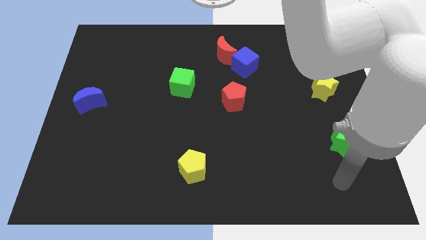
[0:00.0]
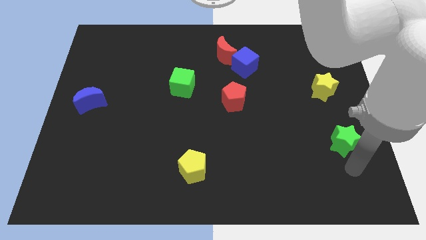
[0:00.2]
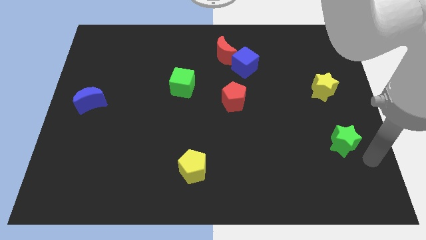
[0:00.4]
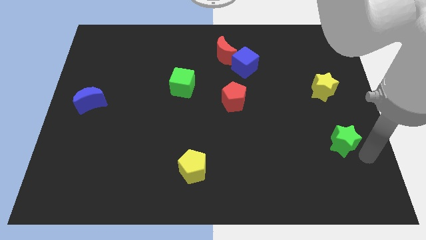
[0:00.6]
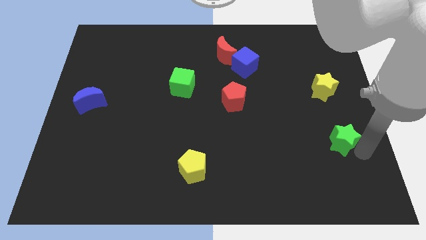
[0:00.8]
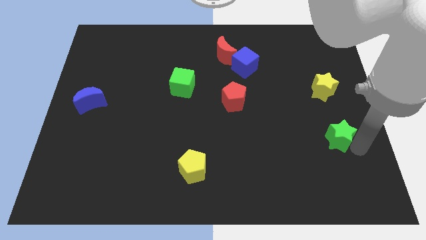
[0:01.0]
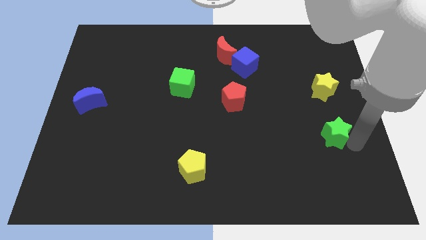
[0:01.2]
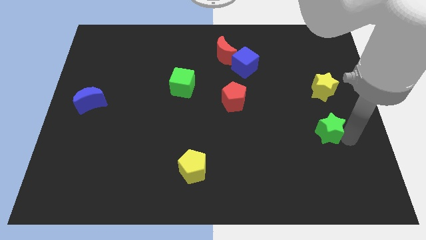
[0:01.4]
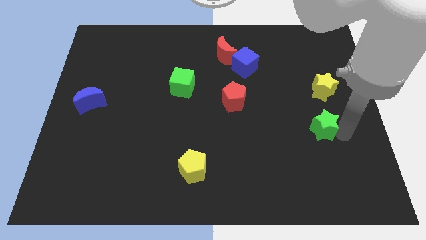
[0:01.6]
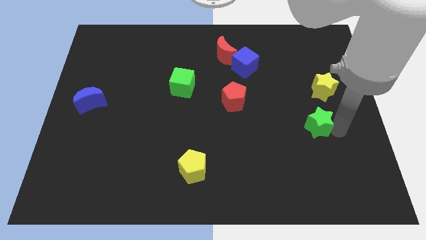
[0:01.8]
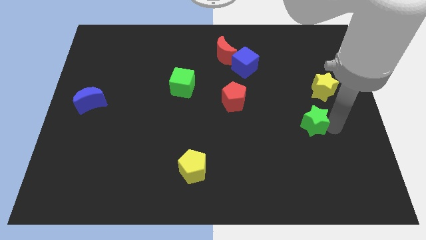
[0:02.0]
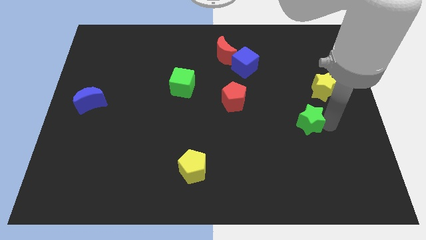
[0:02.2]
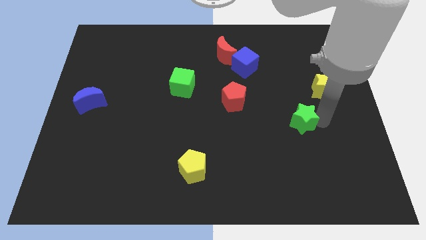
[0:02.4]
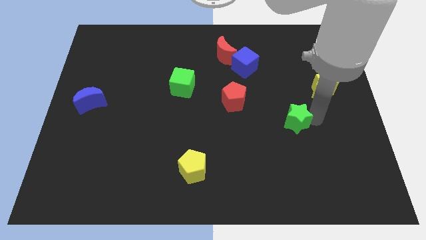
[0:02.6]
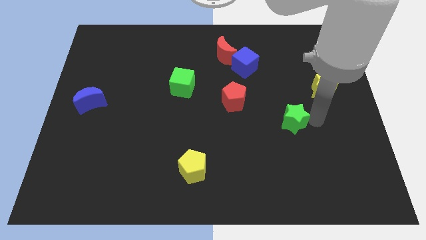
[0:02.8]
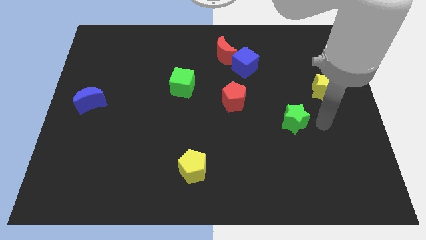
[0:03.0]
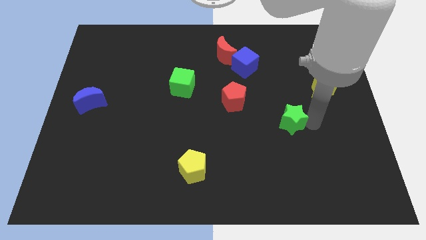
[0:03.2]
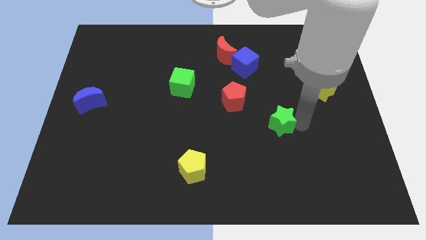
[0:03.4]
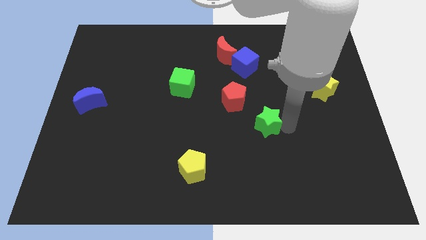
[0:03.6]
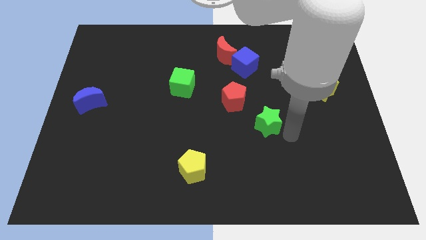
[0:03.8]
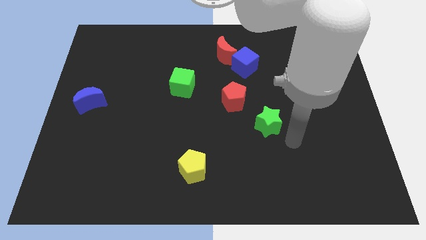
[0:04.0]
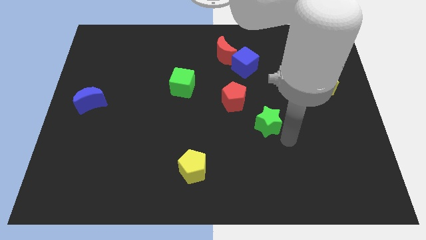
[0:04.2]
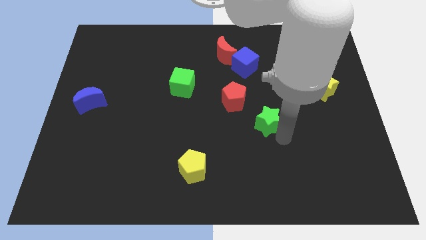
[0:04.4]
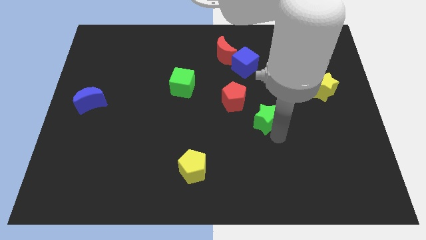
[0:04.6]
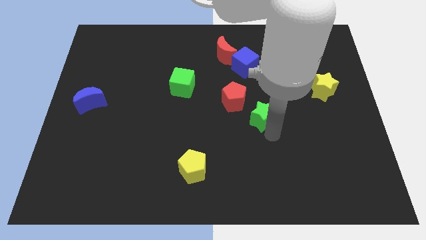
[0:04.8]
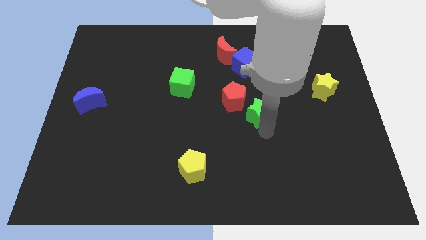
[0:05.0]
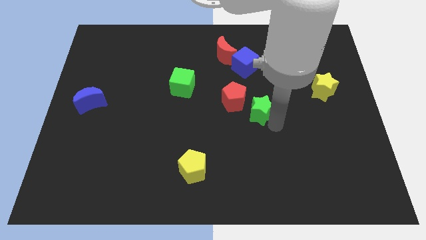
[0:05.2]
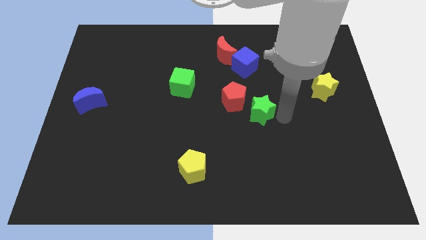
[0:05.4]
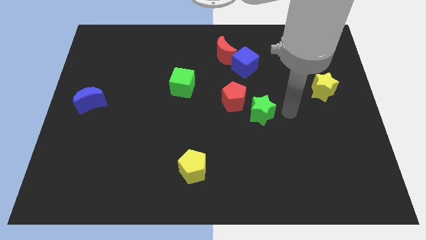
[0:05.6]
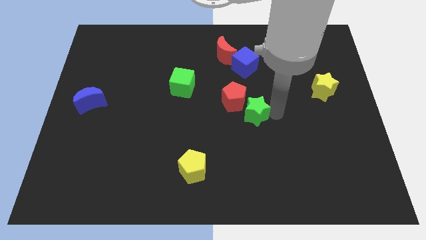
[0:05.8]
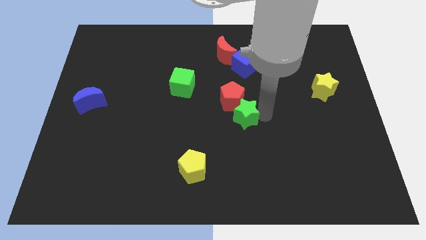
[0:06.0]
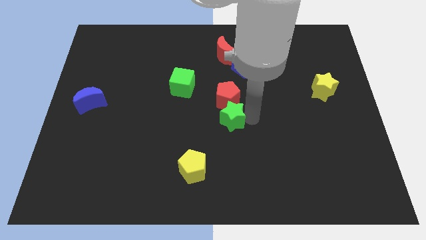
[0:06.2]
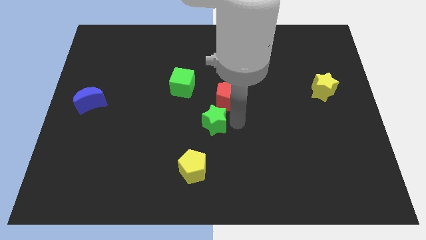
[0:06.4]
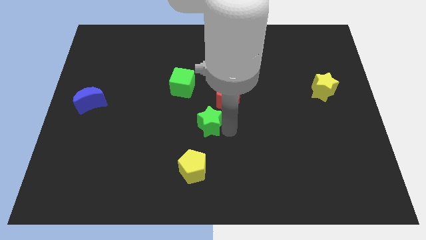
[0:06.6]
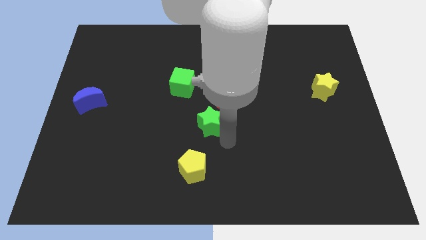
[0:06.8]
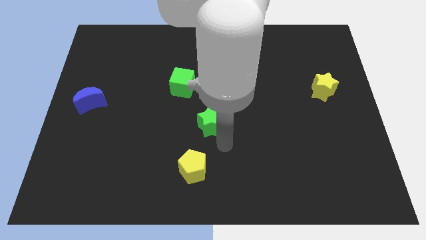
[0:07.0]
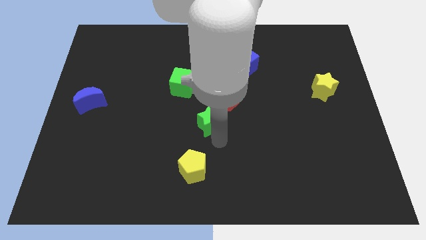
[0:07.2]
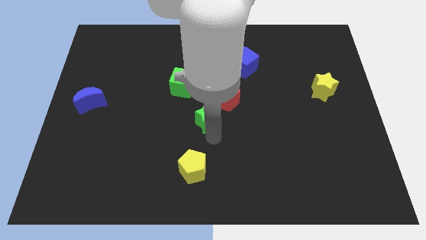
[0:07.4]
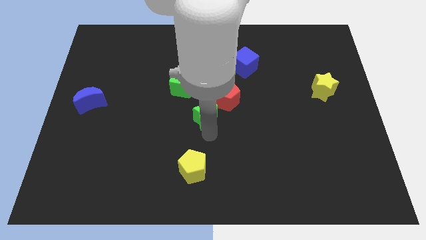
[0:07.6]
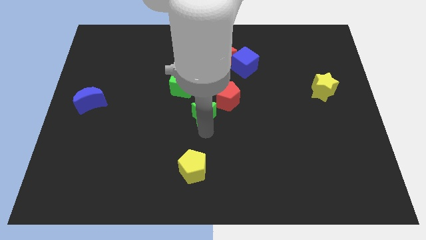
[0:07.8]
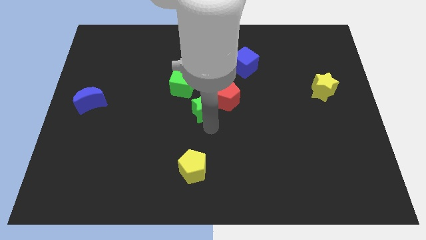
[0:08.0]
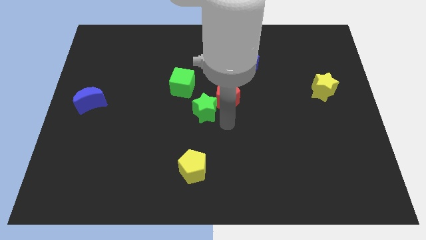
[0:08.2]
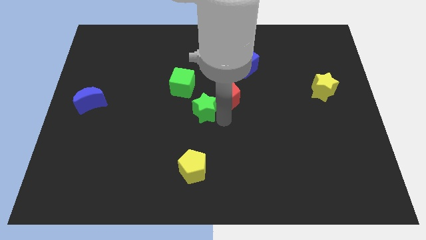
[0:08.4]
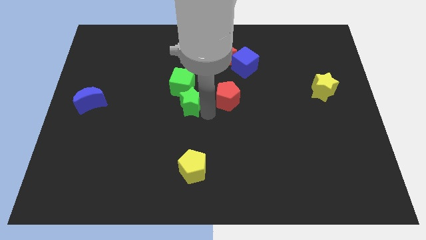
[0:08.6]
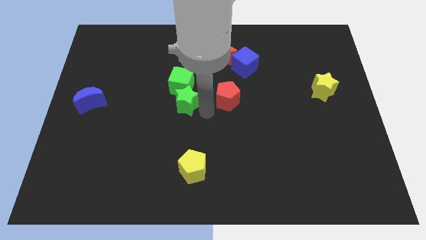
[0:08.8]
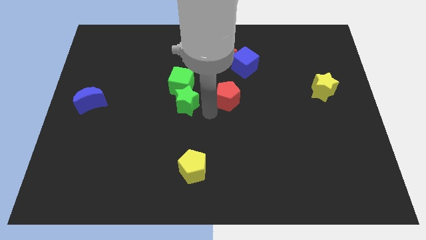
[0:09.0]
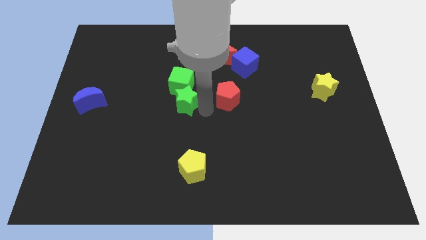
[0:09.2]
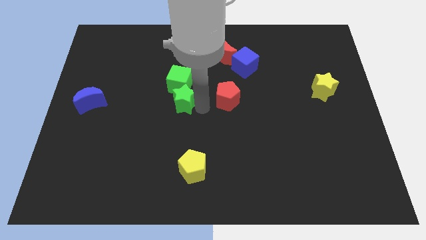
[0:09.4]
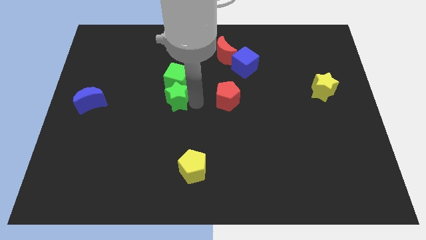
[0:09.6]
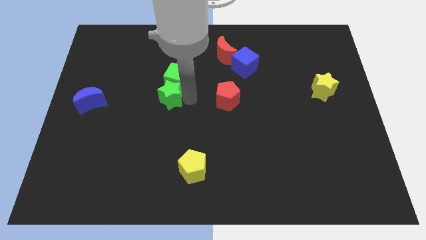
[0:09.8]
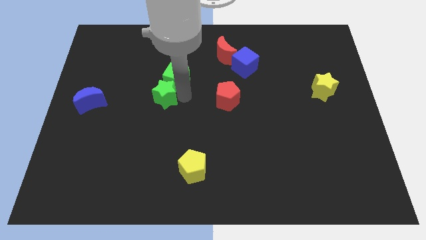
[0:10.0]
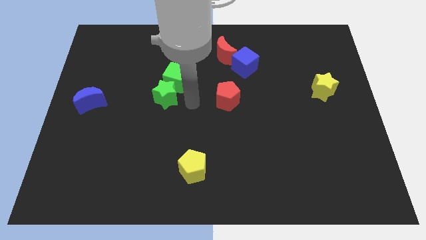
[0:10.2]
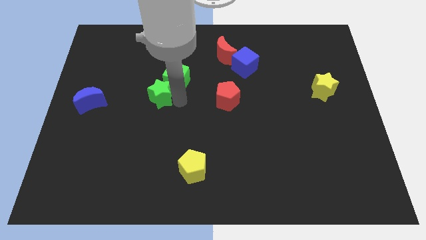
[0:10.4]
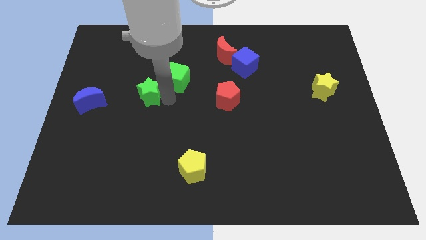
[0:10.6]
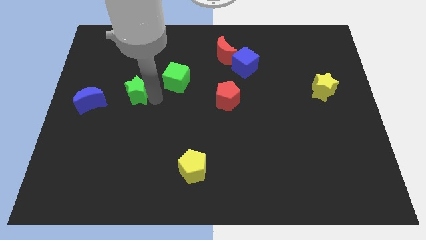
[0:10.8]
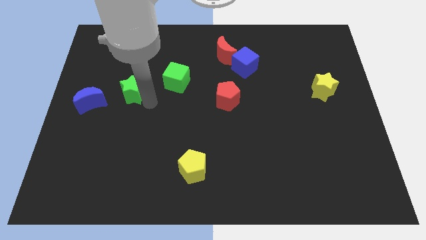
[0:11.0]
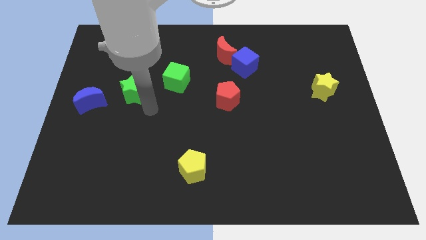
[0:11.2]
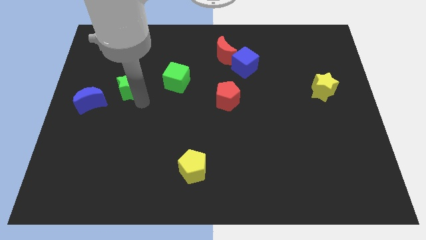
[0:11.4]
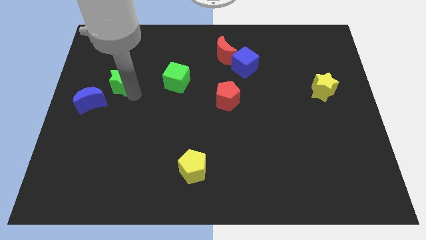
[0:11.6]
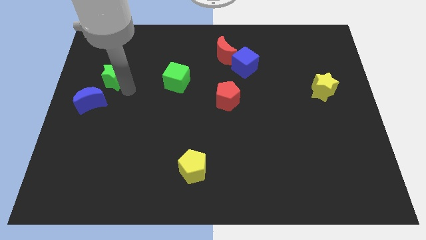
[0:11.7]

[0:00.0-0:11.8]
slide the green star to the top side of the blue moon
